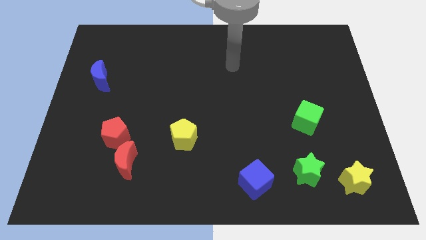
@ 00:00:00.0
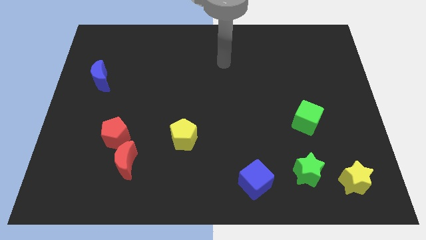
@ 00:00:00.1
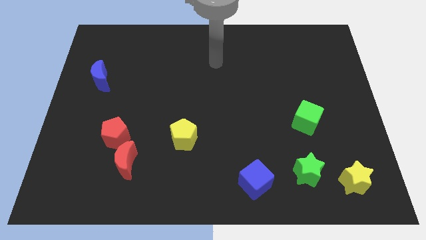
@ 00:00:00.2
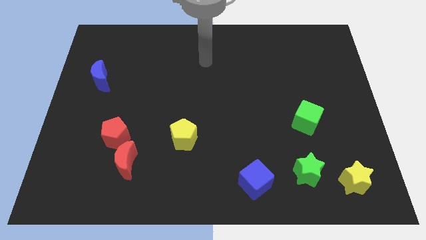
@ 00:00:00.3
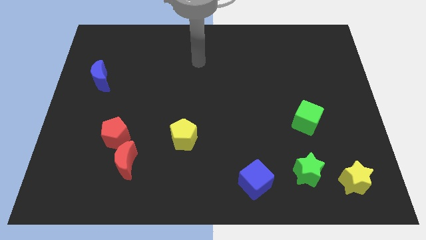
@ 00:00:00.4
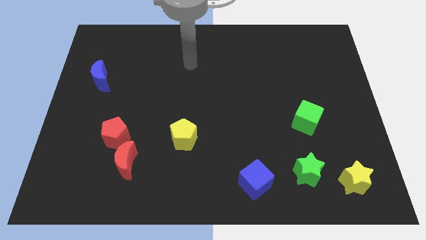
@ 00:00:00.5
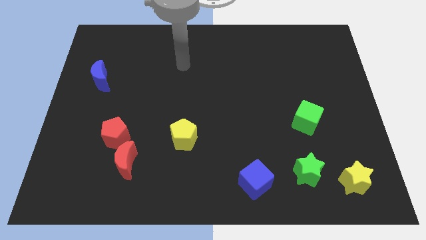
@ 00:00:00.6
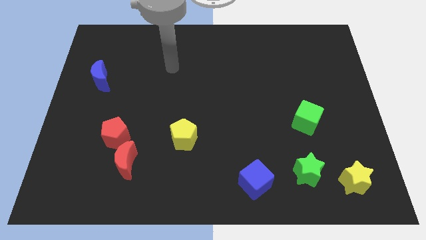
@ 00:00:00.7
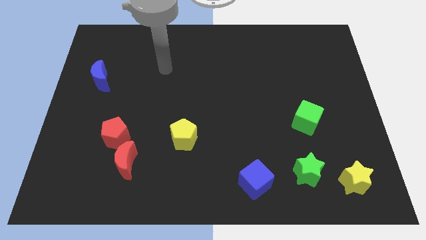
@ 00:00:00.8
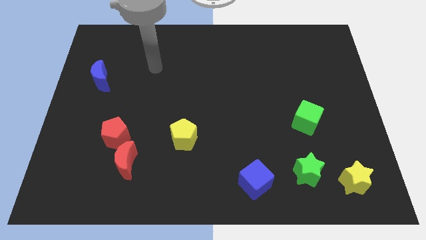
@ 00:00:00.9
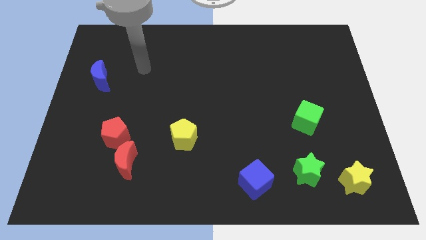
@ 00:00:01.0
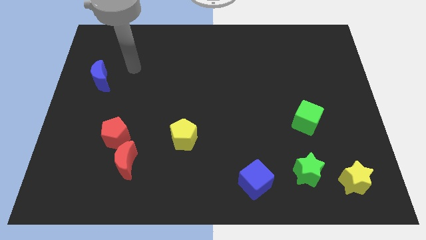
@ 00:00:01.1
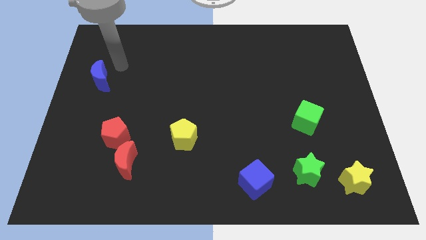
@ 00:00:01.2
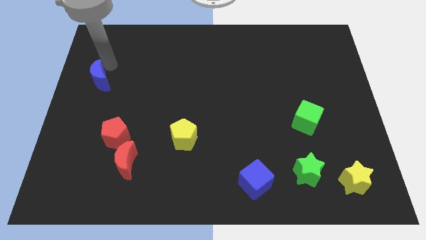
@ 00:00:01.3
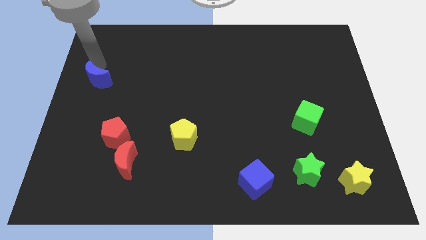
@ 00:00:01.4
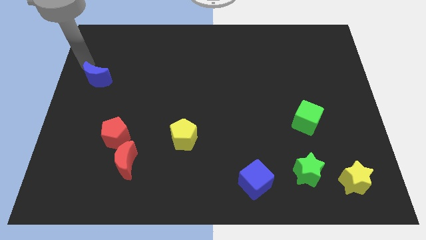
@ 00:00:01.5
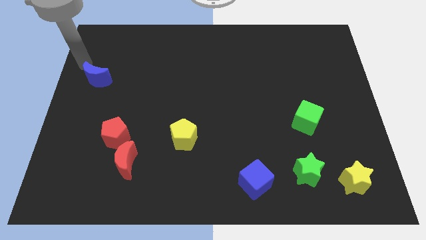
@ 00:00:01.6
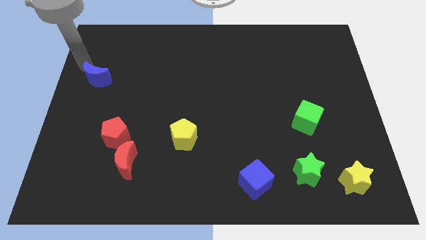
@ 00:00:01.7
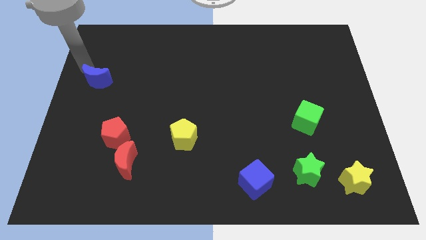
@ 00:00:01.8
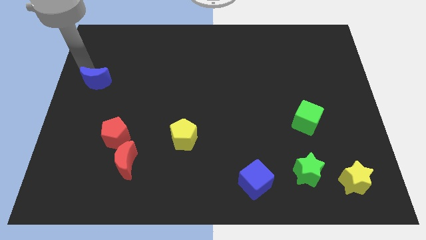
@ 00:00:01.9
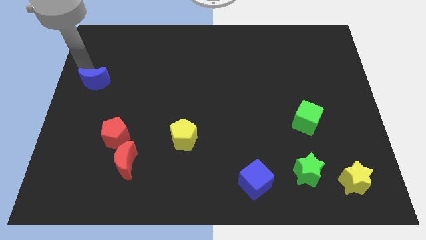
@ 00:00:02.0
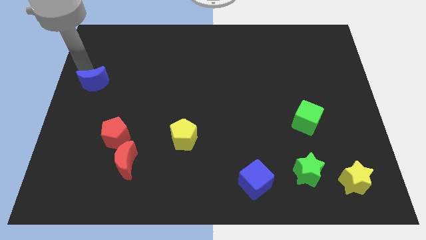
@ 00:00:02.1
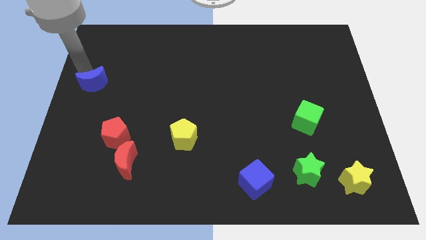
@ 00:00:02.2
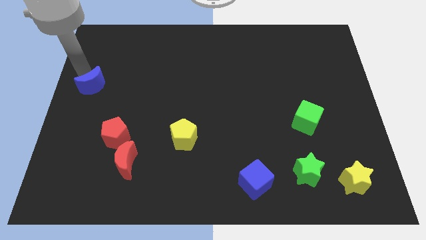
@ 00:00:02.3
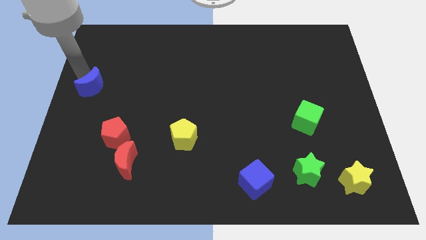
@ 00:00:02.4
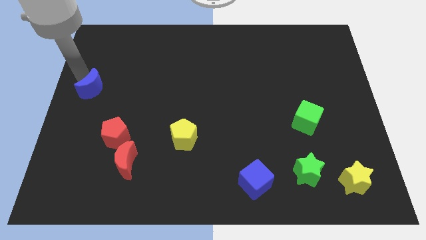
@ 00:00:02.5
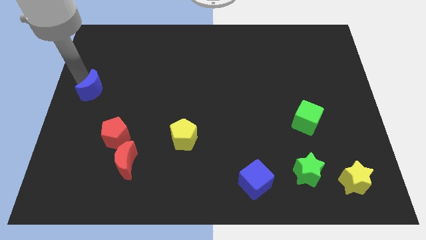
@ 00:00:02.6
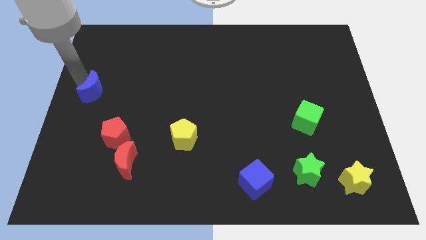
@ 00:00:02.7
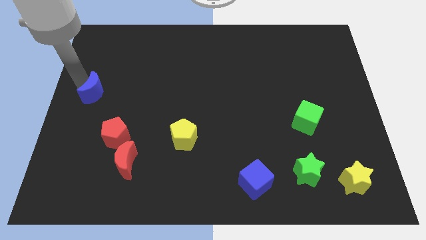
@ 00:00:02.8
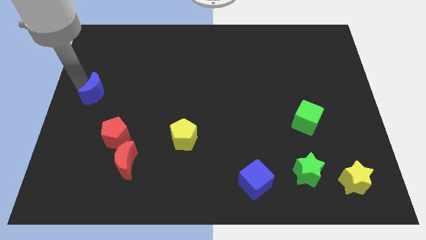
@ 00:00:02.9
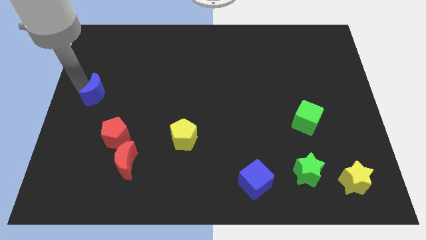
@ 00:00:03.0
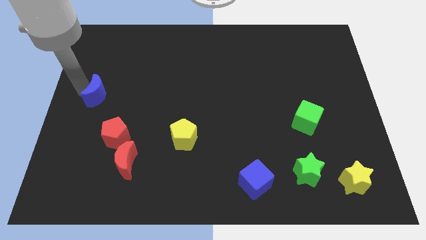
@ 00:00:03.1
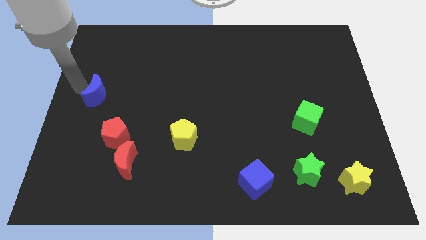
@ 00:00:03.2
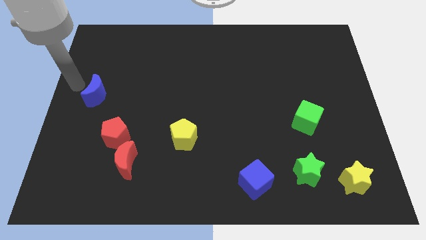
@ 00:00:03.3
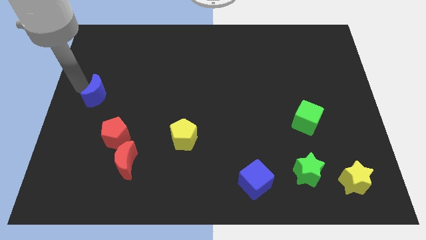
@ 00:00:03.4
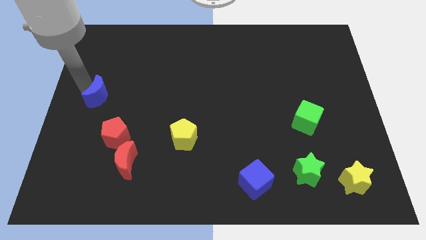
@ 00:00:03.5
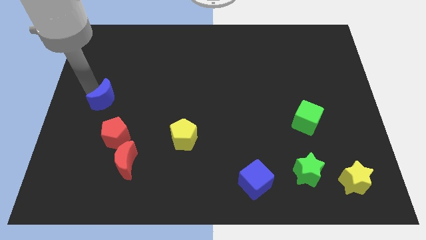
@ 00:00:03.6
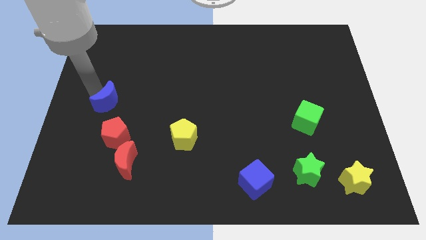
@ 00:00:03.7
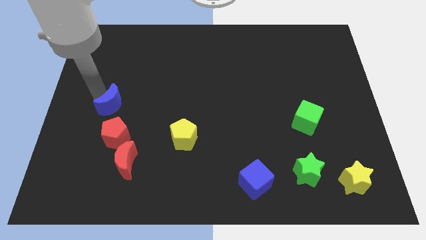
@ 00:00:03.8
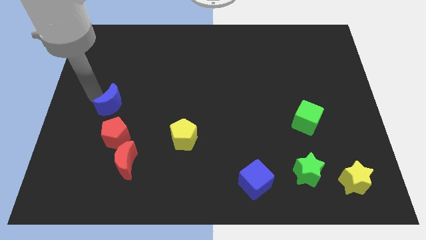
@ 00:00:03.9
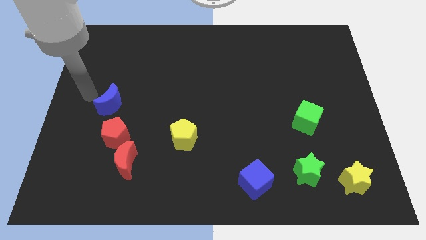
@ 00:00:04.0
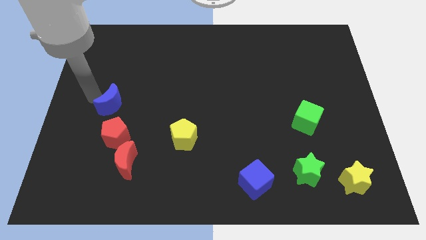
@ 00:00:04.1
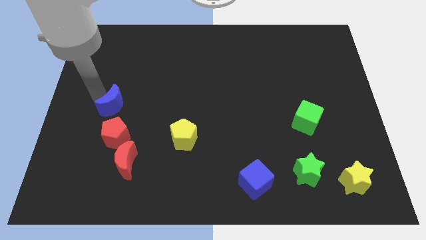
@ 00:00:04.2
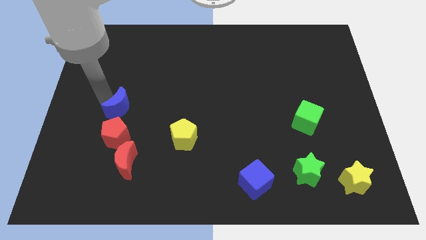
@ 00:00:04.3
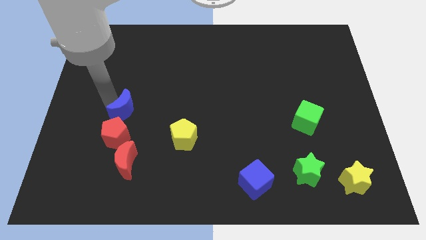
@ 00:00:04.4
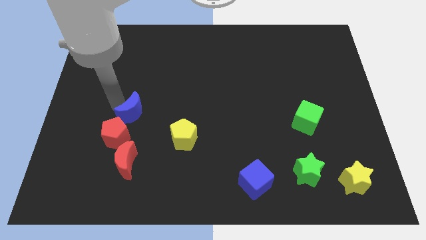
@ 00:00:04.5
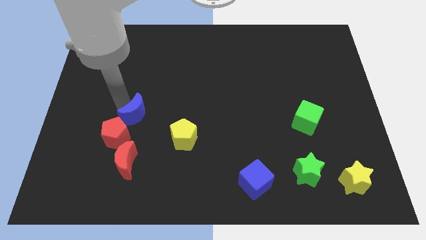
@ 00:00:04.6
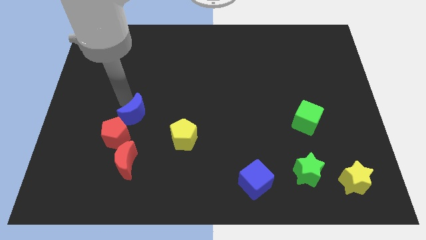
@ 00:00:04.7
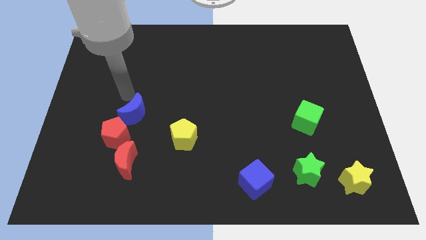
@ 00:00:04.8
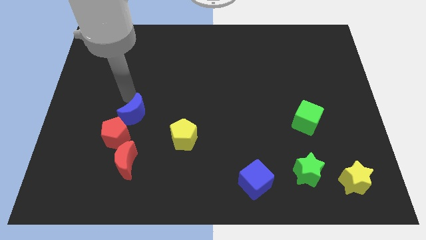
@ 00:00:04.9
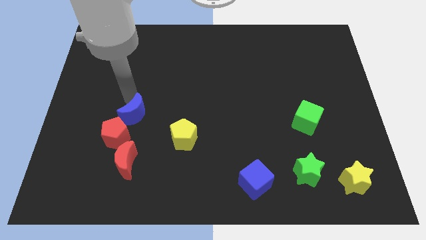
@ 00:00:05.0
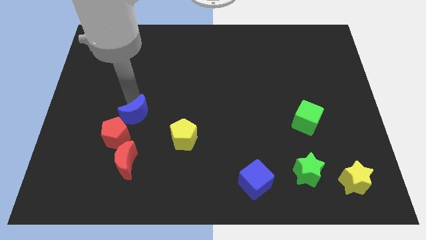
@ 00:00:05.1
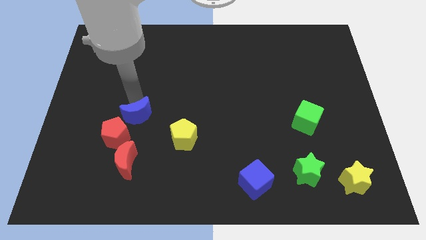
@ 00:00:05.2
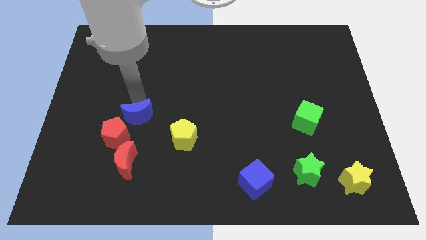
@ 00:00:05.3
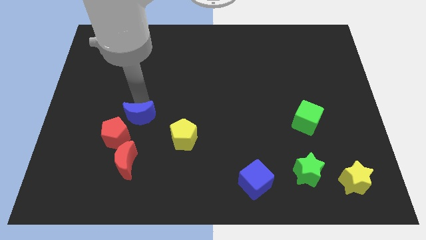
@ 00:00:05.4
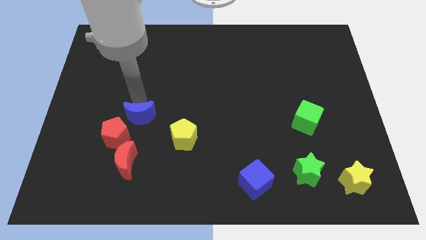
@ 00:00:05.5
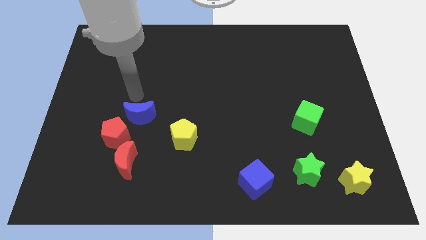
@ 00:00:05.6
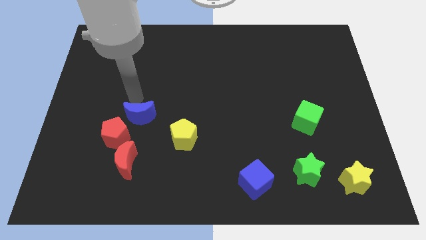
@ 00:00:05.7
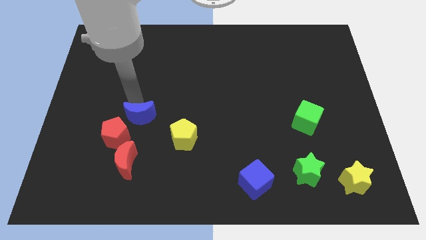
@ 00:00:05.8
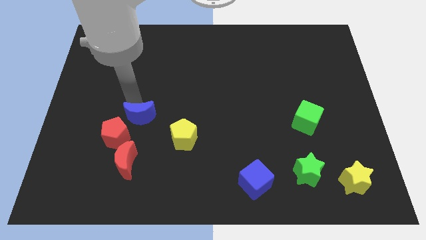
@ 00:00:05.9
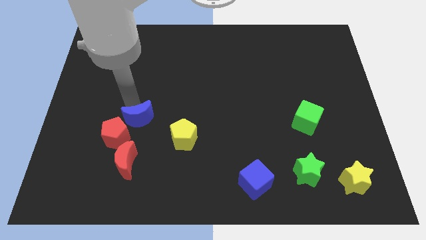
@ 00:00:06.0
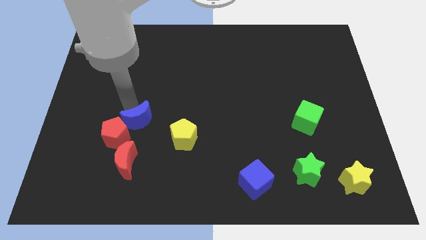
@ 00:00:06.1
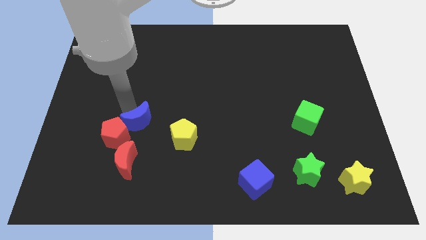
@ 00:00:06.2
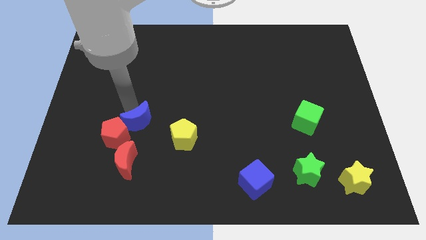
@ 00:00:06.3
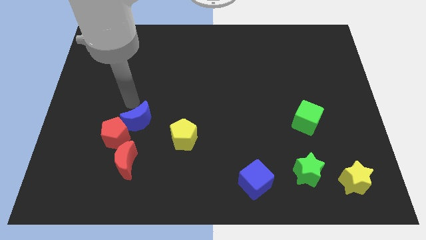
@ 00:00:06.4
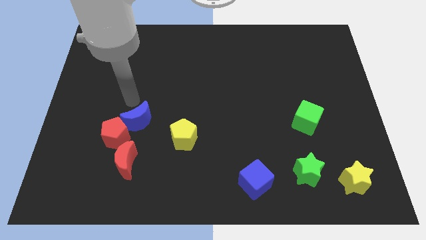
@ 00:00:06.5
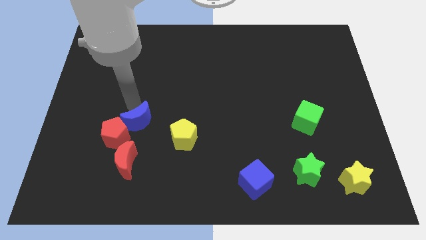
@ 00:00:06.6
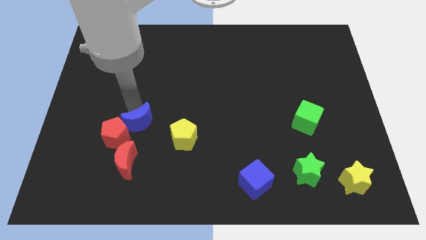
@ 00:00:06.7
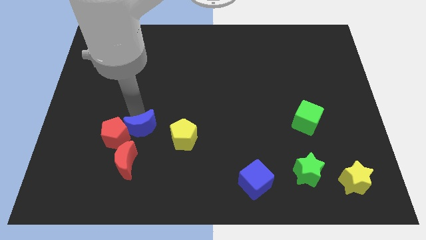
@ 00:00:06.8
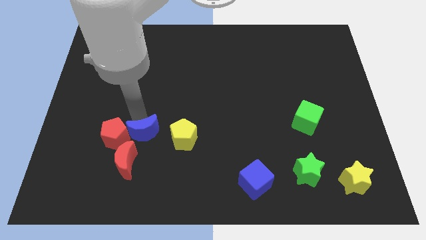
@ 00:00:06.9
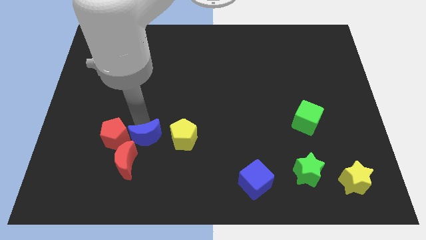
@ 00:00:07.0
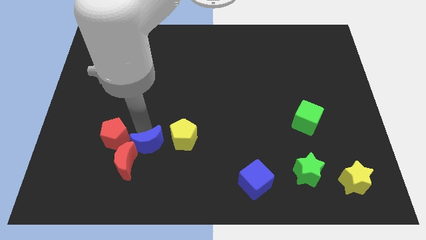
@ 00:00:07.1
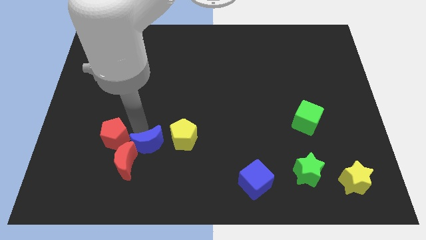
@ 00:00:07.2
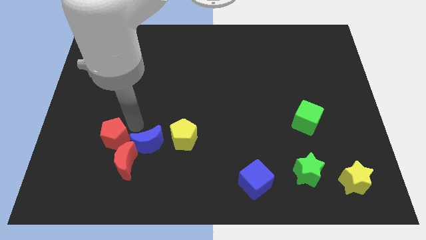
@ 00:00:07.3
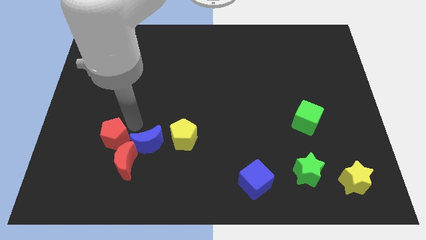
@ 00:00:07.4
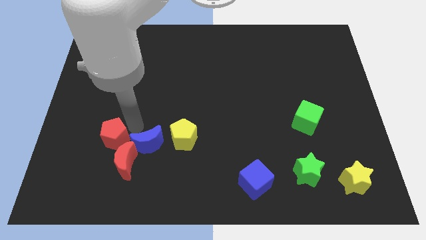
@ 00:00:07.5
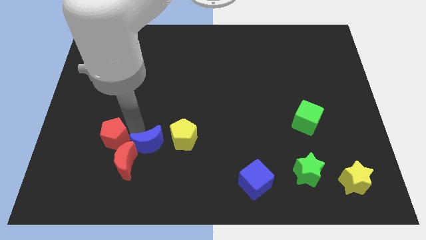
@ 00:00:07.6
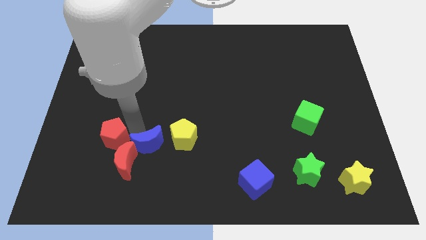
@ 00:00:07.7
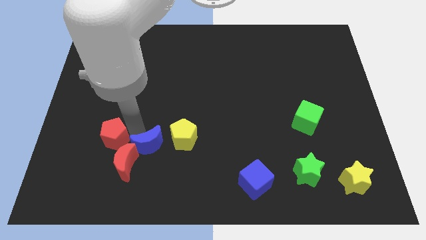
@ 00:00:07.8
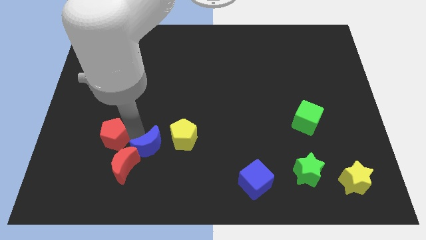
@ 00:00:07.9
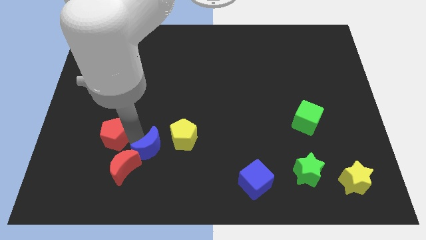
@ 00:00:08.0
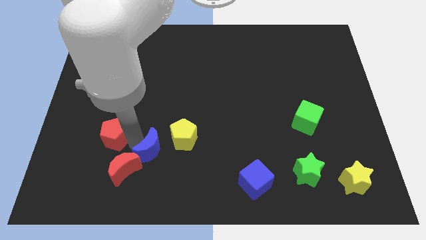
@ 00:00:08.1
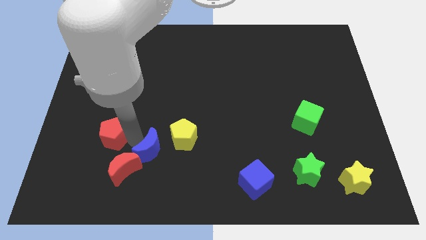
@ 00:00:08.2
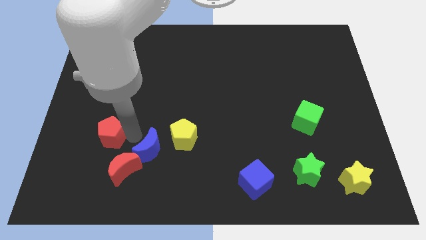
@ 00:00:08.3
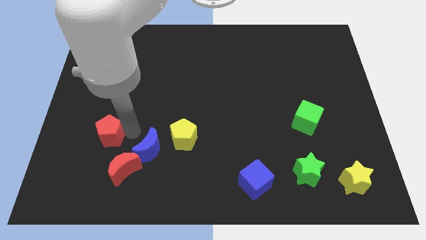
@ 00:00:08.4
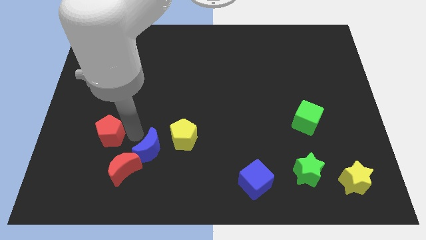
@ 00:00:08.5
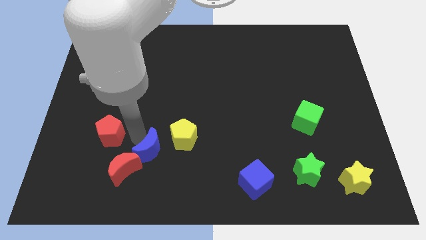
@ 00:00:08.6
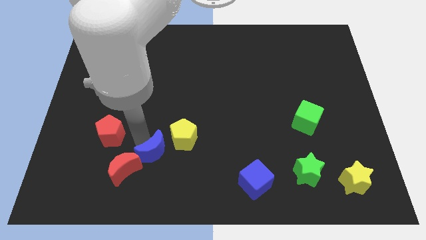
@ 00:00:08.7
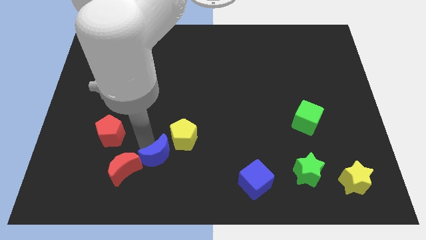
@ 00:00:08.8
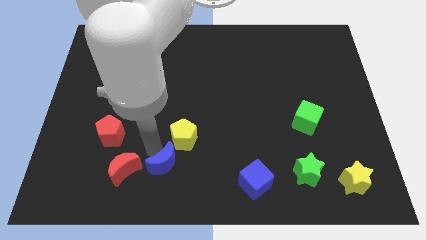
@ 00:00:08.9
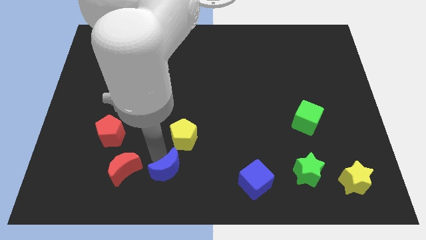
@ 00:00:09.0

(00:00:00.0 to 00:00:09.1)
put the blue moon to the bottom
